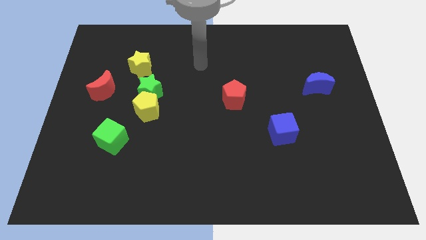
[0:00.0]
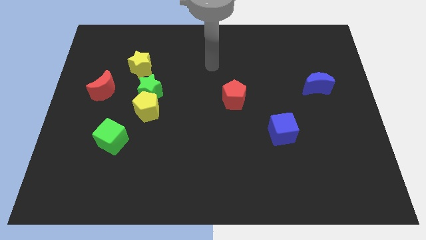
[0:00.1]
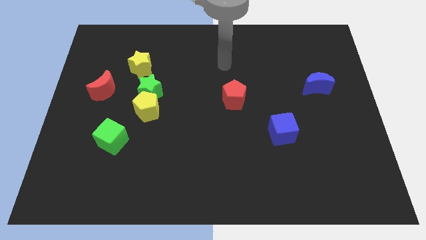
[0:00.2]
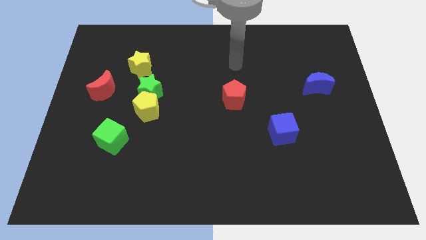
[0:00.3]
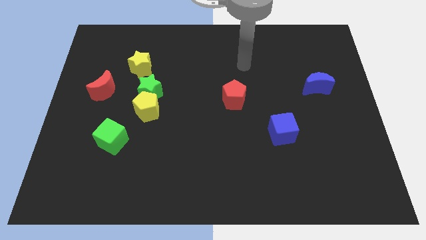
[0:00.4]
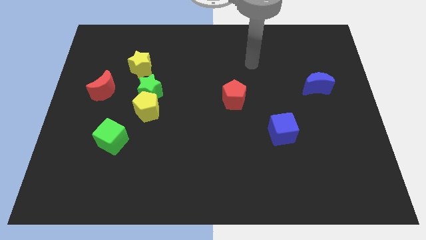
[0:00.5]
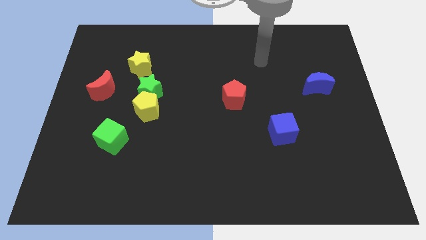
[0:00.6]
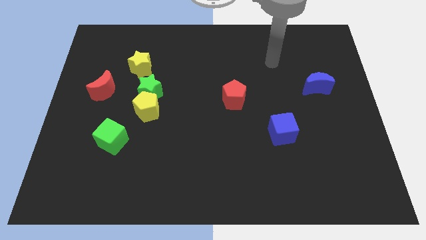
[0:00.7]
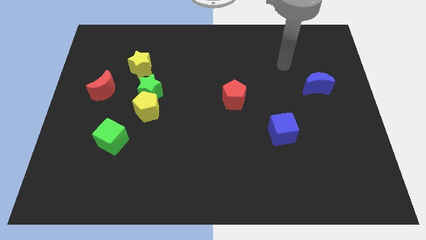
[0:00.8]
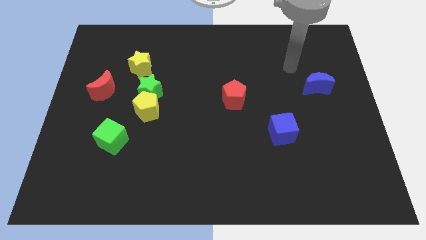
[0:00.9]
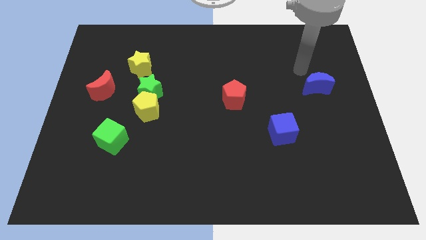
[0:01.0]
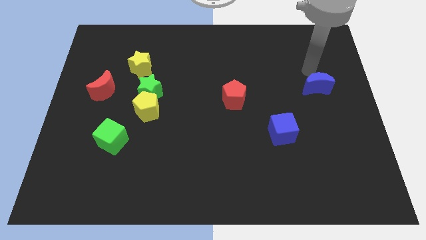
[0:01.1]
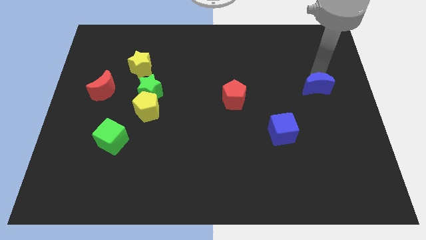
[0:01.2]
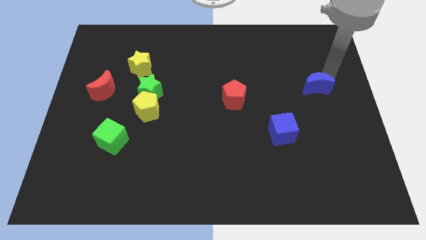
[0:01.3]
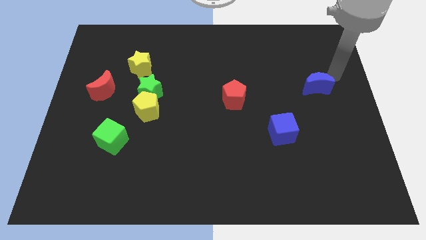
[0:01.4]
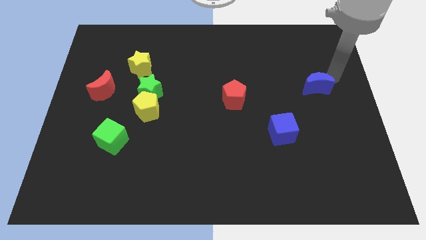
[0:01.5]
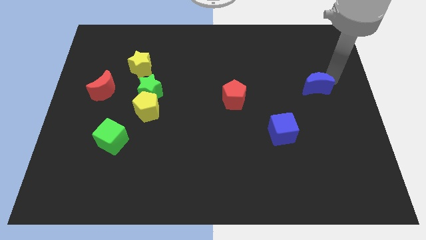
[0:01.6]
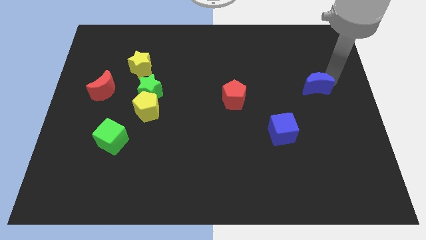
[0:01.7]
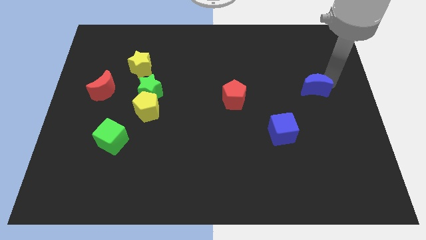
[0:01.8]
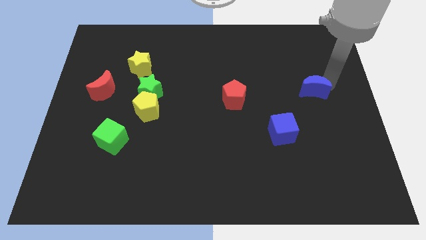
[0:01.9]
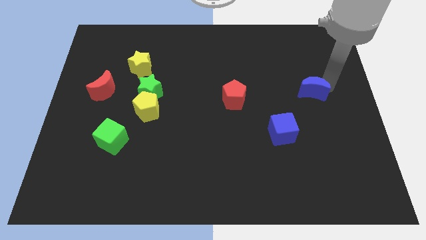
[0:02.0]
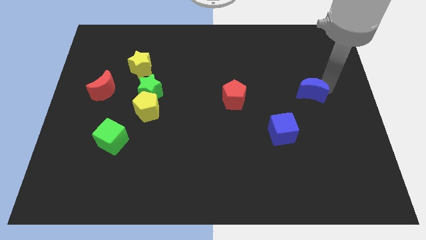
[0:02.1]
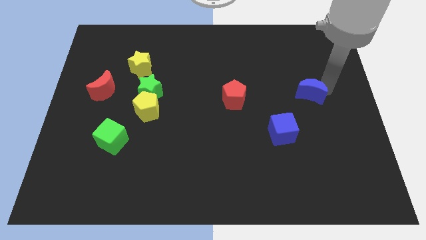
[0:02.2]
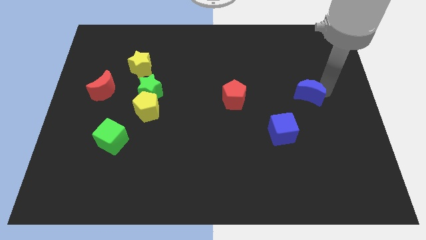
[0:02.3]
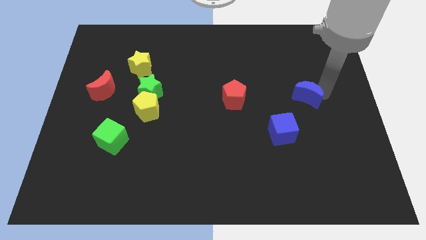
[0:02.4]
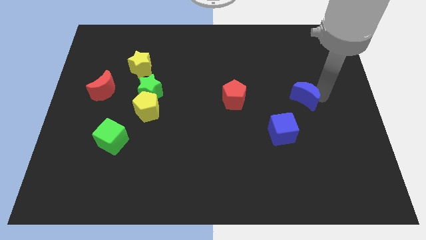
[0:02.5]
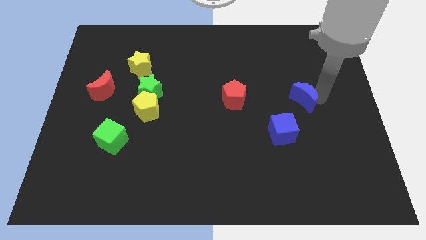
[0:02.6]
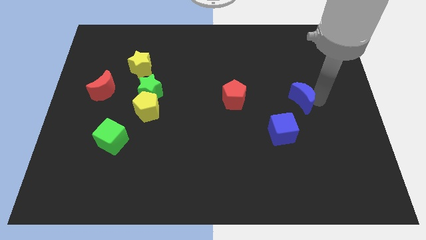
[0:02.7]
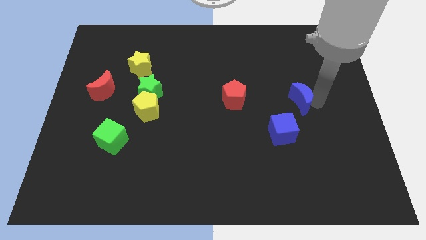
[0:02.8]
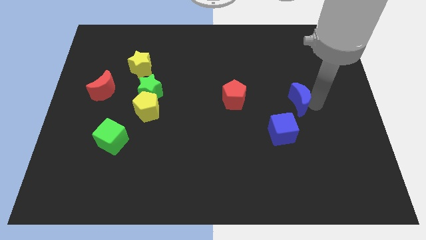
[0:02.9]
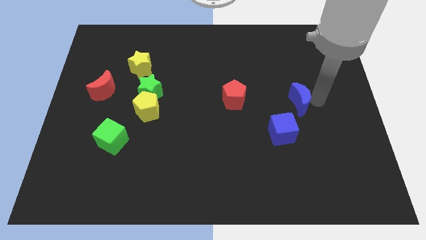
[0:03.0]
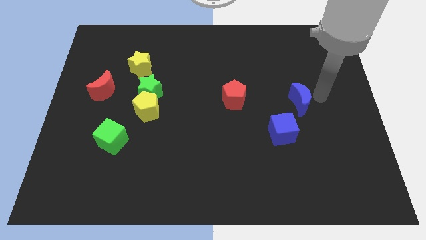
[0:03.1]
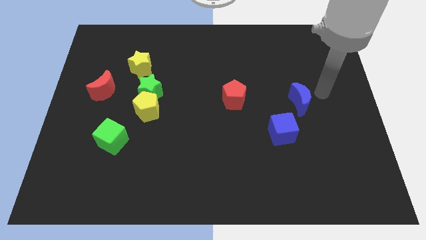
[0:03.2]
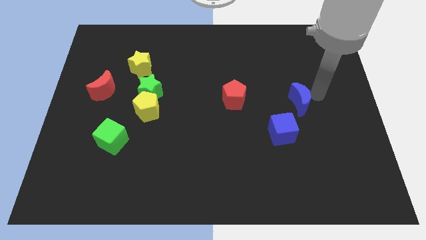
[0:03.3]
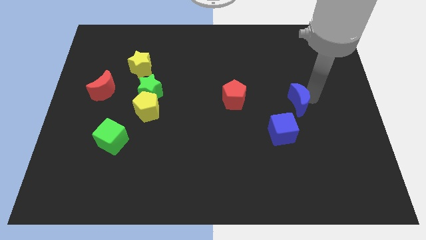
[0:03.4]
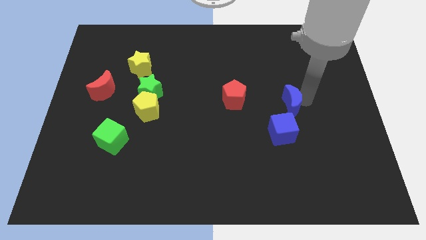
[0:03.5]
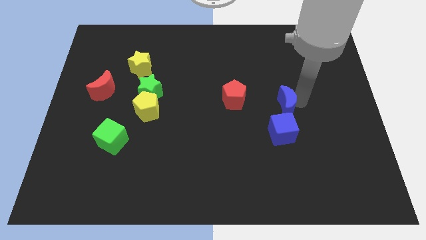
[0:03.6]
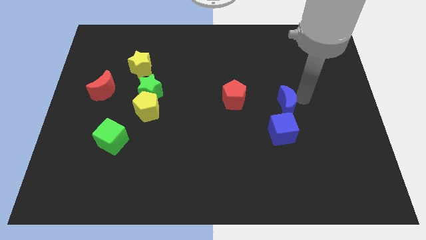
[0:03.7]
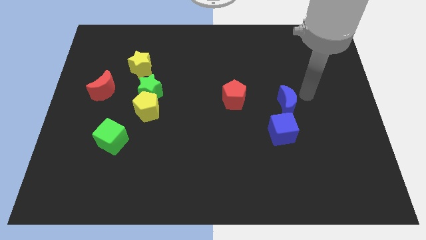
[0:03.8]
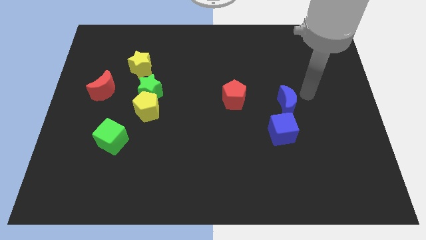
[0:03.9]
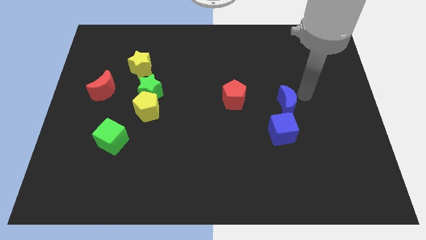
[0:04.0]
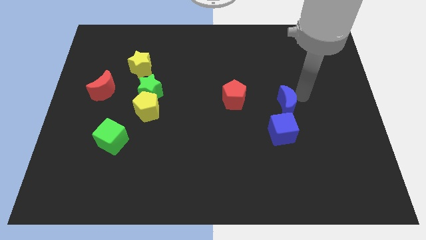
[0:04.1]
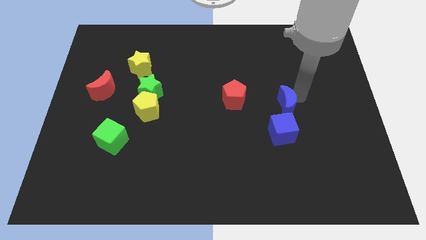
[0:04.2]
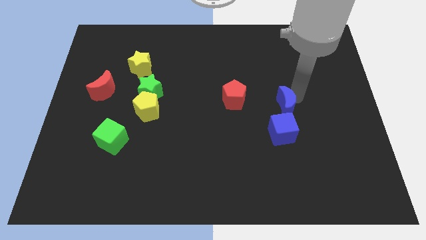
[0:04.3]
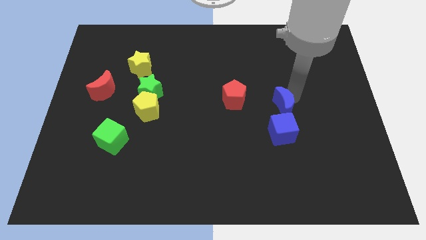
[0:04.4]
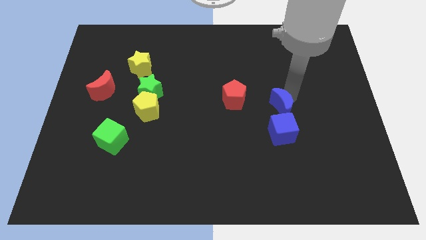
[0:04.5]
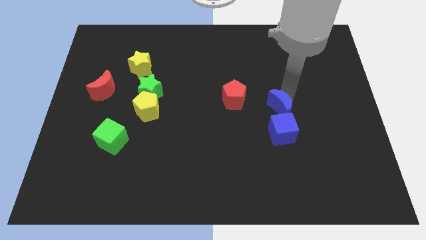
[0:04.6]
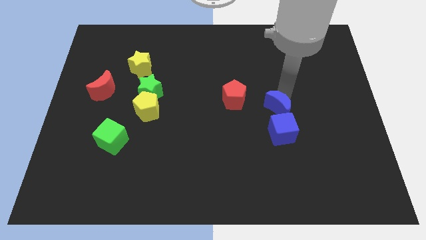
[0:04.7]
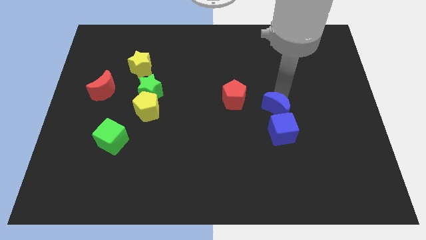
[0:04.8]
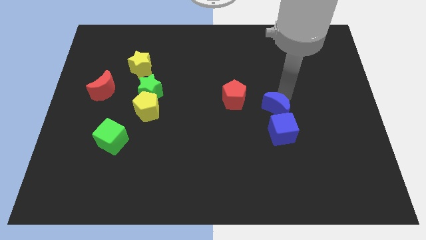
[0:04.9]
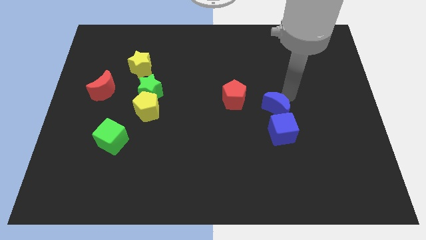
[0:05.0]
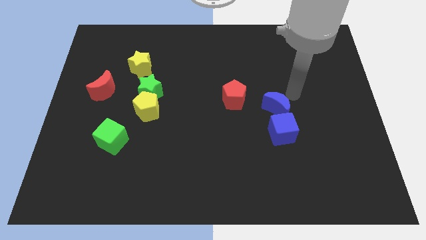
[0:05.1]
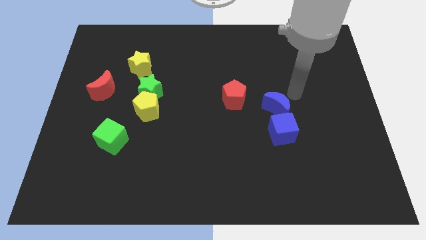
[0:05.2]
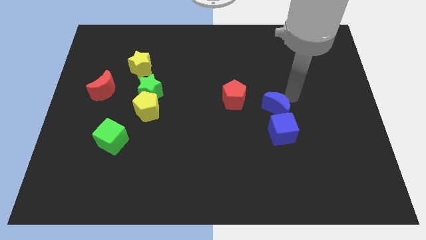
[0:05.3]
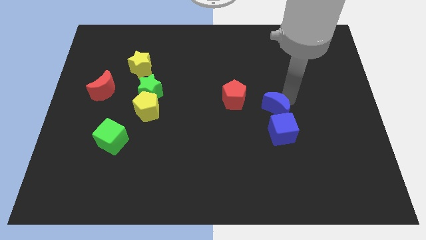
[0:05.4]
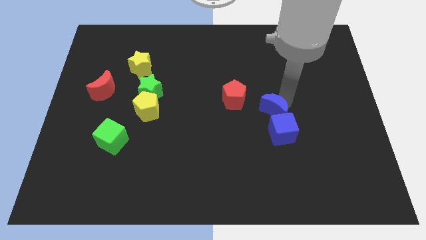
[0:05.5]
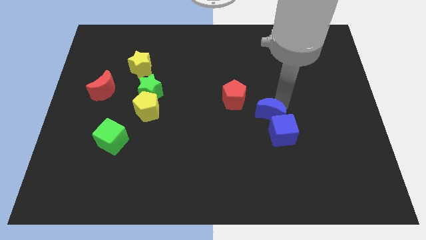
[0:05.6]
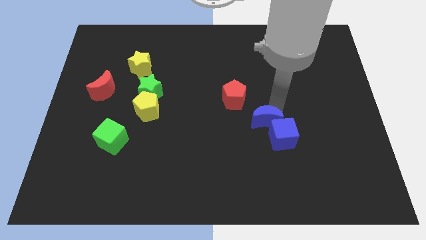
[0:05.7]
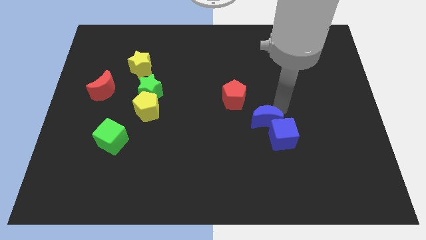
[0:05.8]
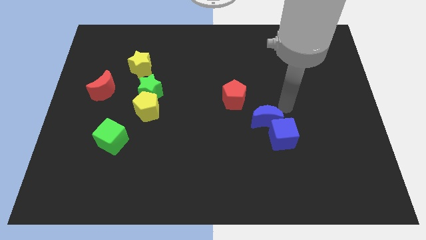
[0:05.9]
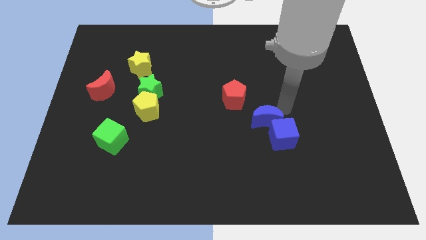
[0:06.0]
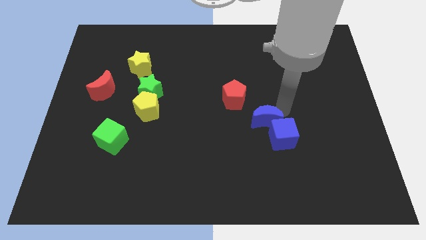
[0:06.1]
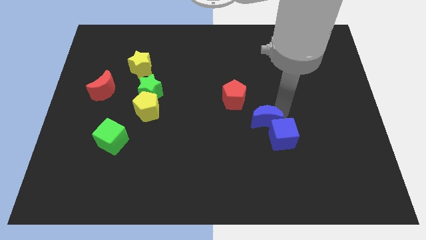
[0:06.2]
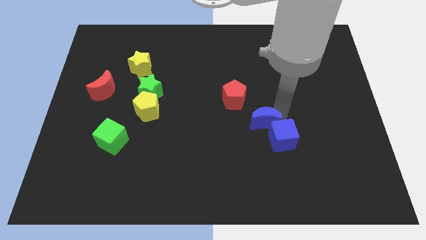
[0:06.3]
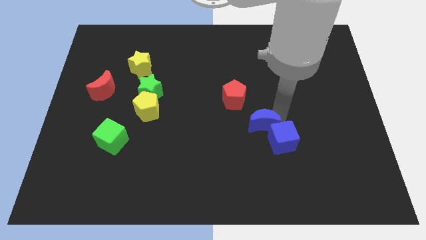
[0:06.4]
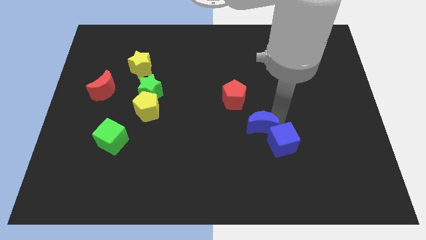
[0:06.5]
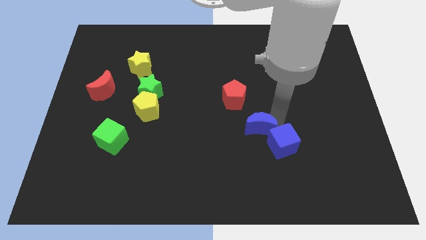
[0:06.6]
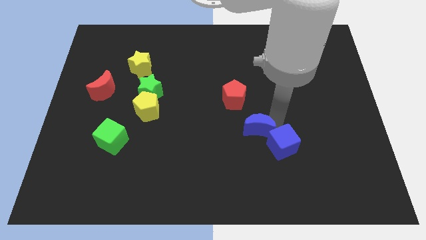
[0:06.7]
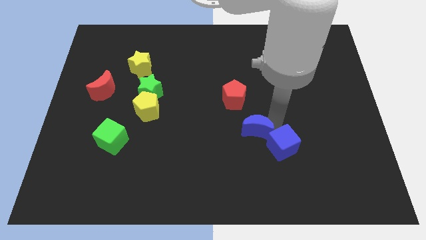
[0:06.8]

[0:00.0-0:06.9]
slide the blue moon diagonally downwards and left

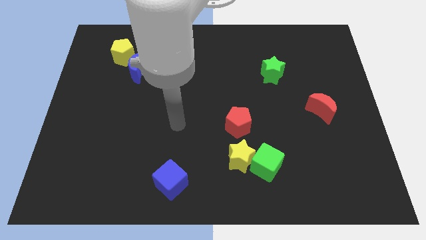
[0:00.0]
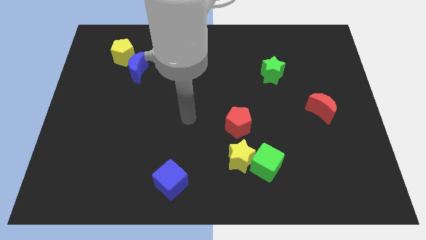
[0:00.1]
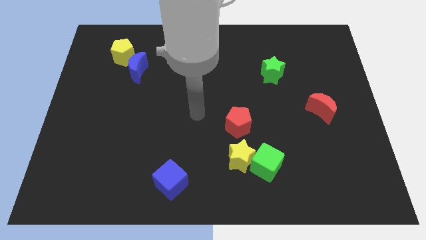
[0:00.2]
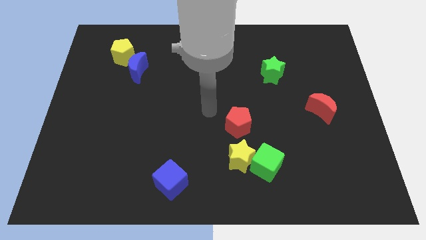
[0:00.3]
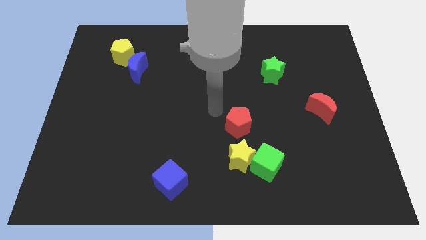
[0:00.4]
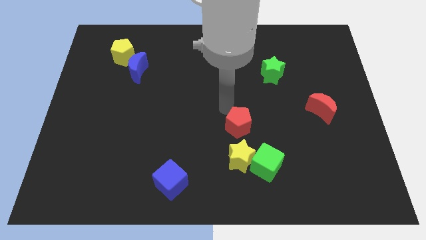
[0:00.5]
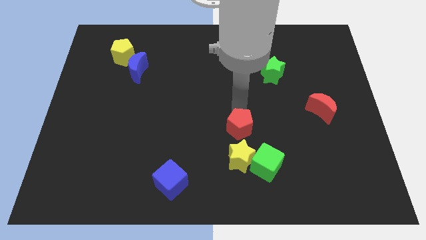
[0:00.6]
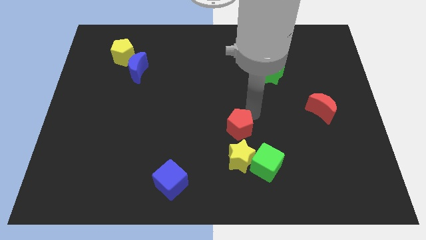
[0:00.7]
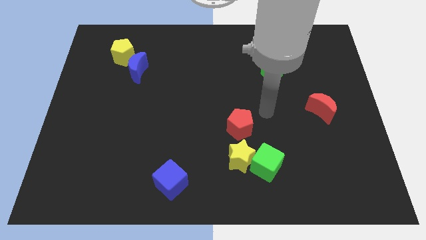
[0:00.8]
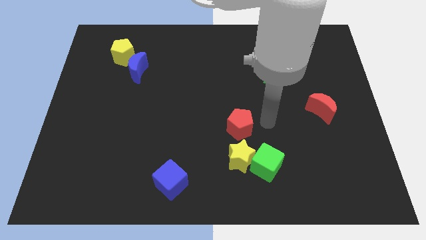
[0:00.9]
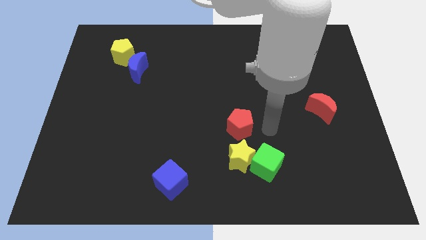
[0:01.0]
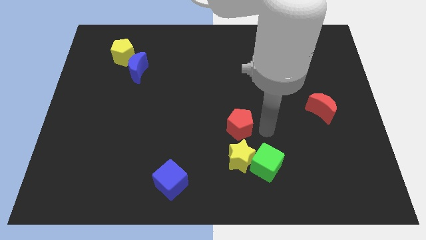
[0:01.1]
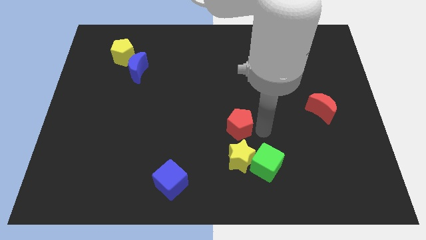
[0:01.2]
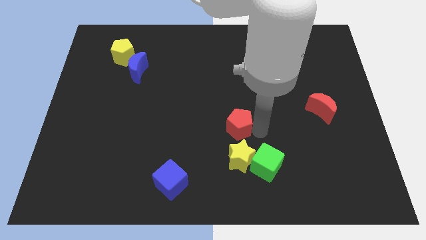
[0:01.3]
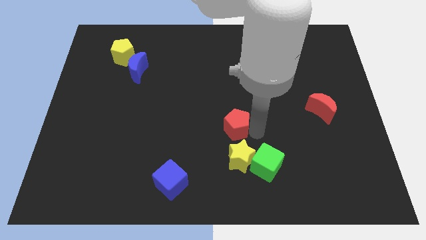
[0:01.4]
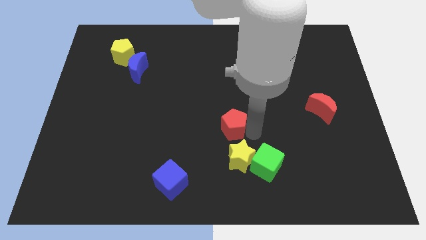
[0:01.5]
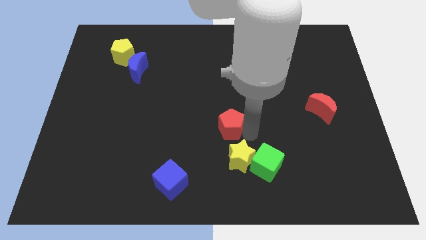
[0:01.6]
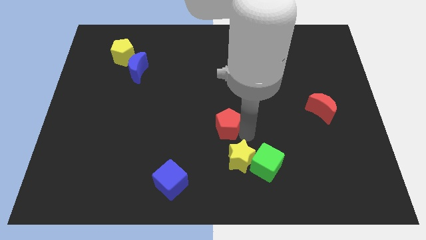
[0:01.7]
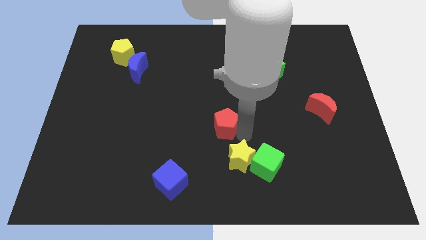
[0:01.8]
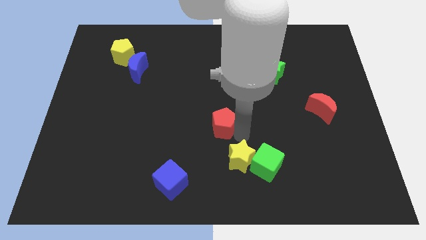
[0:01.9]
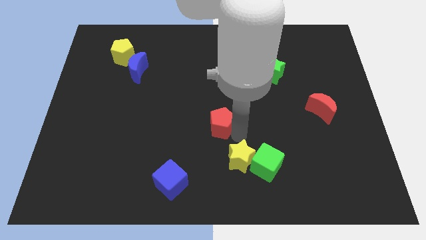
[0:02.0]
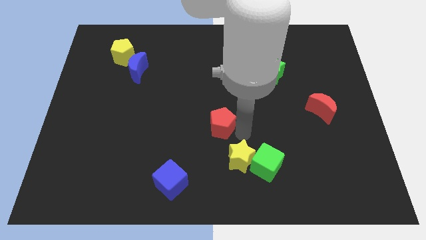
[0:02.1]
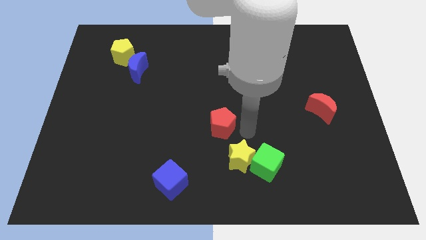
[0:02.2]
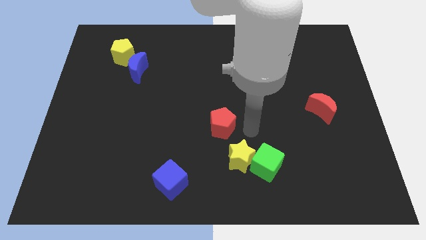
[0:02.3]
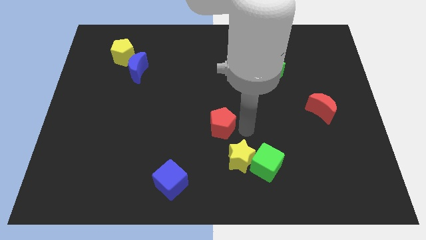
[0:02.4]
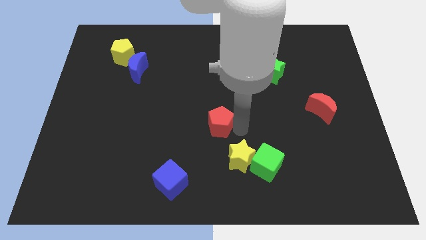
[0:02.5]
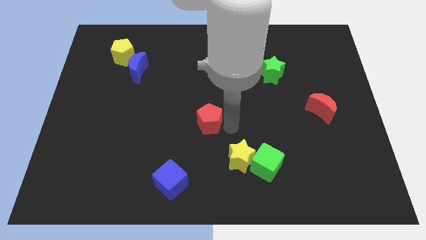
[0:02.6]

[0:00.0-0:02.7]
slightly slide the red pentagon left
